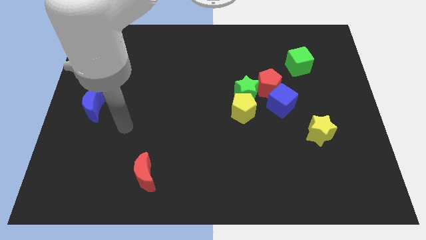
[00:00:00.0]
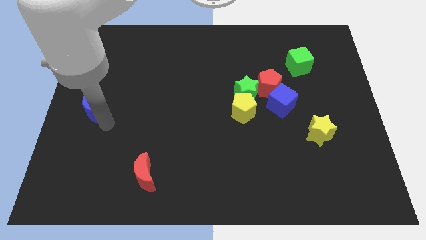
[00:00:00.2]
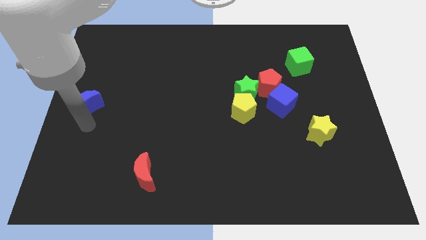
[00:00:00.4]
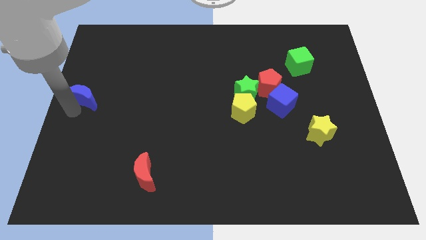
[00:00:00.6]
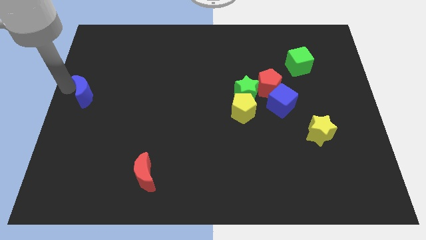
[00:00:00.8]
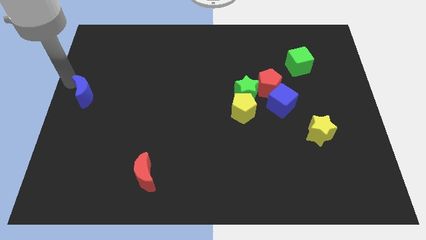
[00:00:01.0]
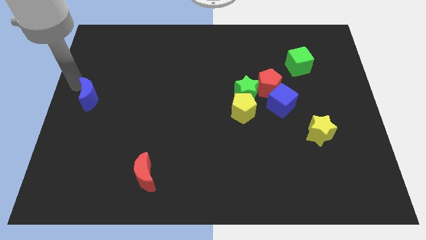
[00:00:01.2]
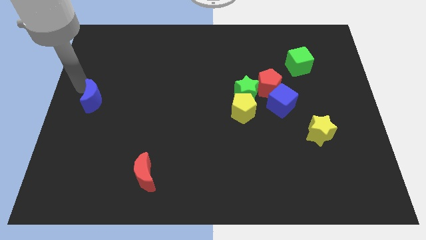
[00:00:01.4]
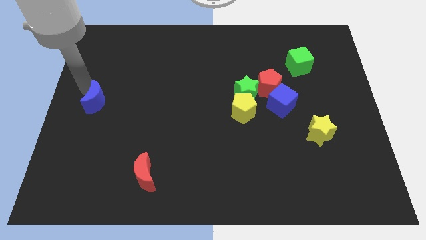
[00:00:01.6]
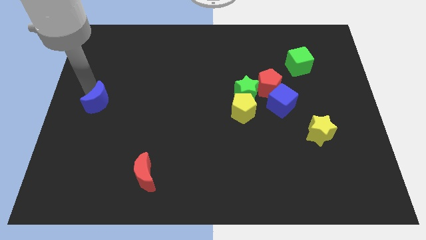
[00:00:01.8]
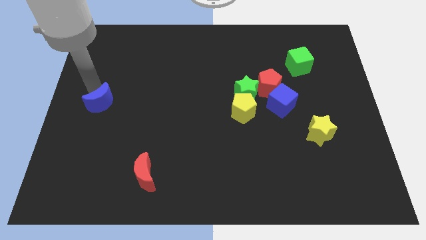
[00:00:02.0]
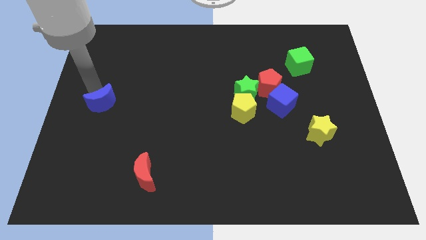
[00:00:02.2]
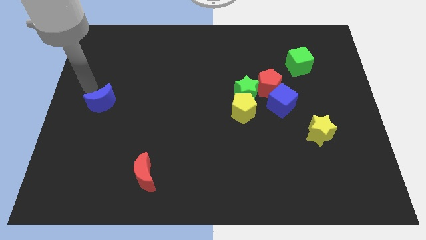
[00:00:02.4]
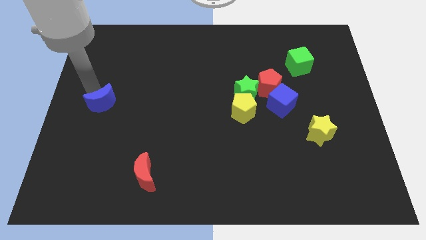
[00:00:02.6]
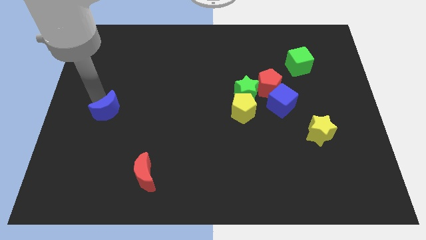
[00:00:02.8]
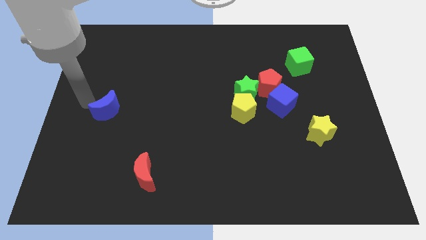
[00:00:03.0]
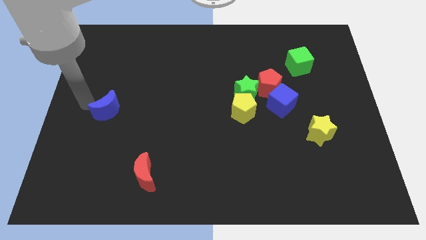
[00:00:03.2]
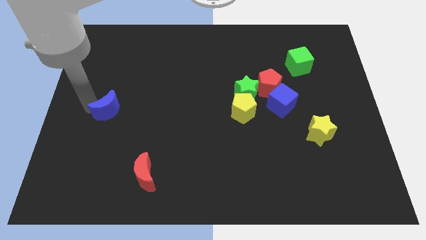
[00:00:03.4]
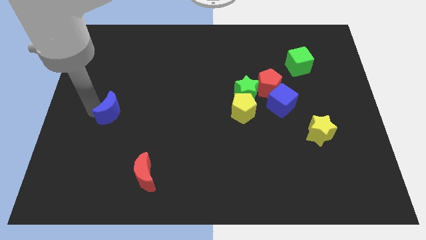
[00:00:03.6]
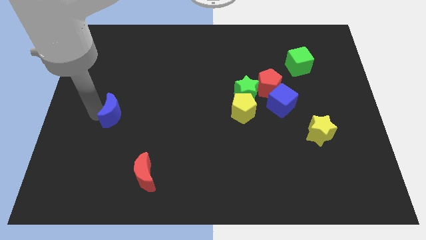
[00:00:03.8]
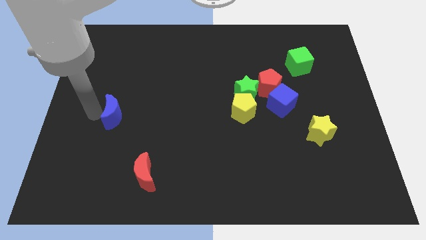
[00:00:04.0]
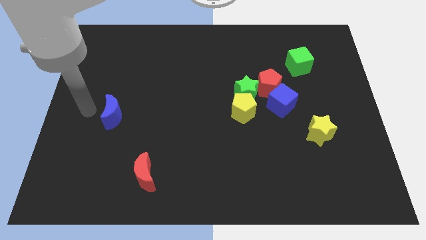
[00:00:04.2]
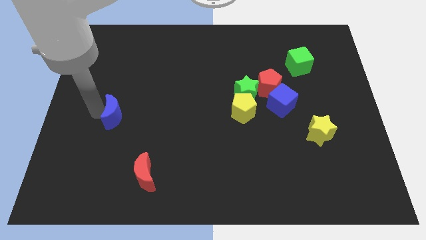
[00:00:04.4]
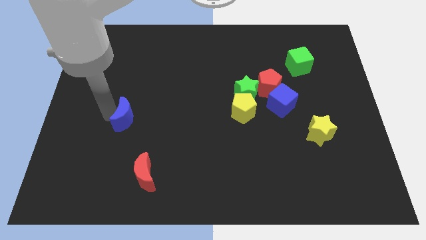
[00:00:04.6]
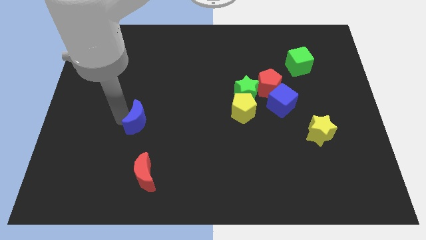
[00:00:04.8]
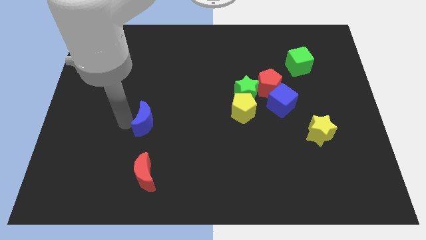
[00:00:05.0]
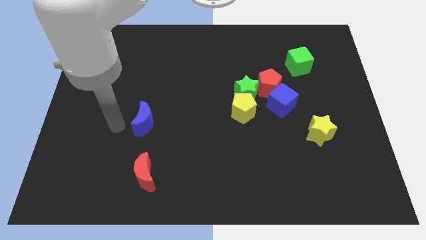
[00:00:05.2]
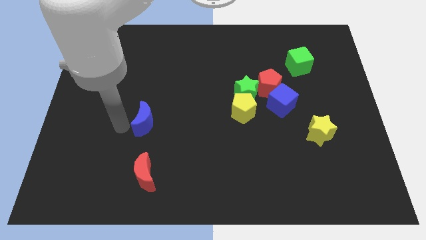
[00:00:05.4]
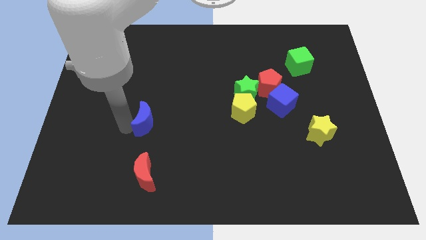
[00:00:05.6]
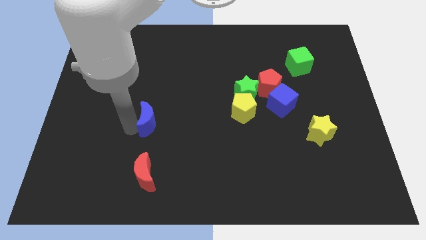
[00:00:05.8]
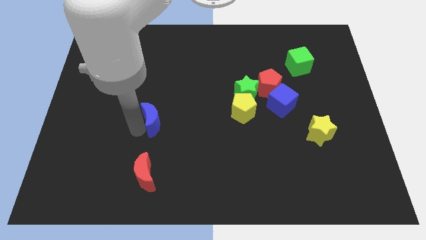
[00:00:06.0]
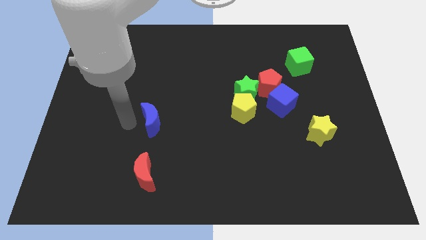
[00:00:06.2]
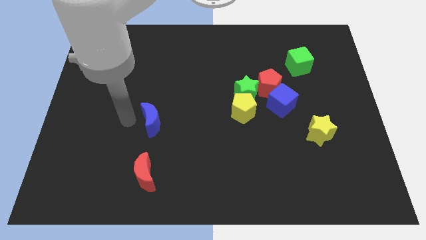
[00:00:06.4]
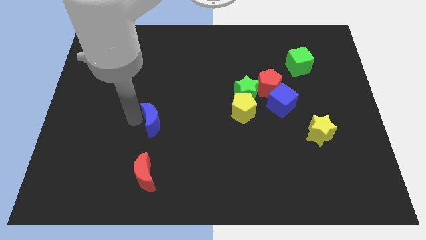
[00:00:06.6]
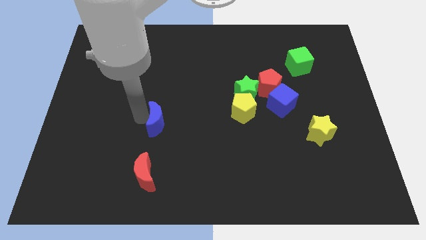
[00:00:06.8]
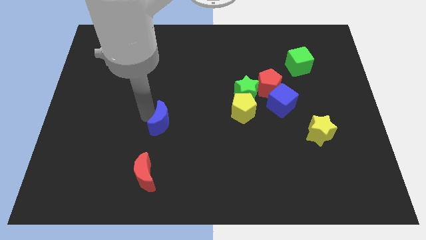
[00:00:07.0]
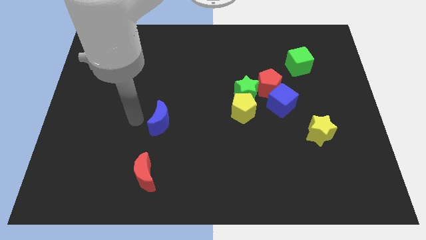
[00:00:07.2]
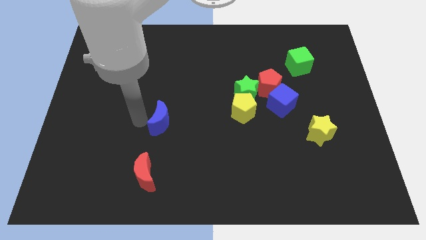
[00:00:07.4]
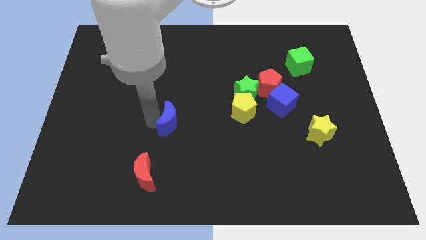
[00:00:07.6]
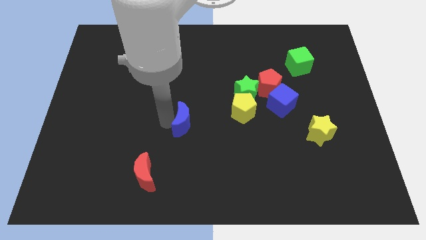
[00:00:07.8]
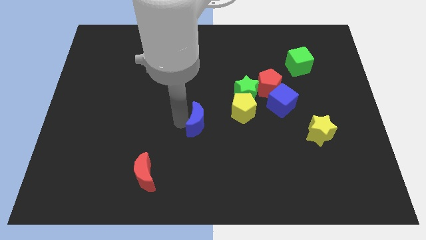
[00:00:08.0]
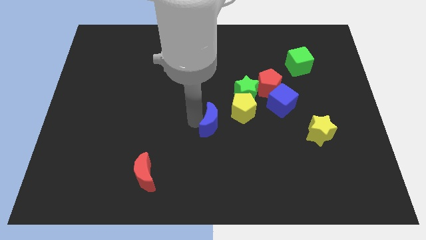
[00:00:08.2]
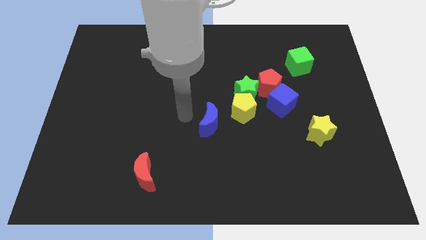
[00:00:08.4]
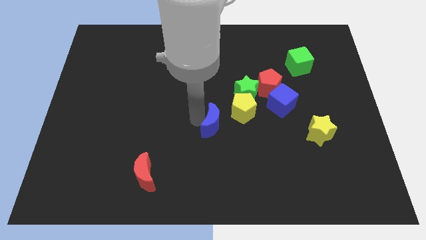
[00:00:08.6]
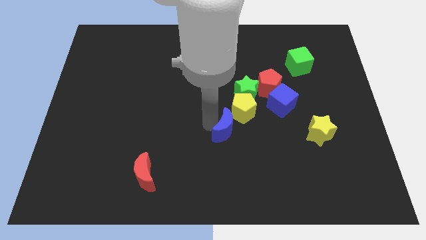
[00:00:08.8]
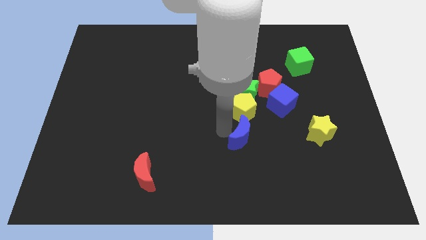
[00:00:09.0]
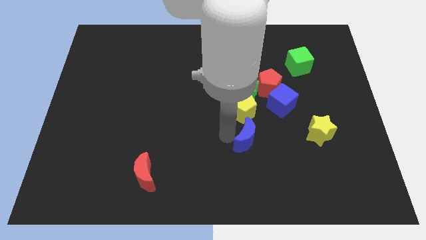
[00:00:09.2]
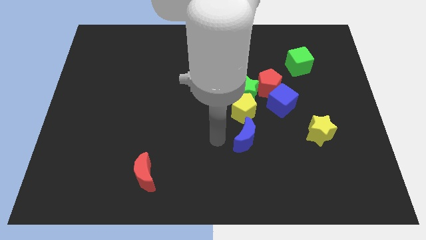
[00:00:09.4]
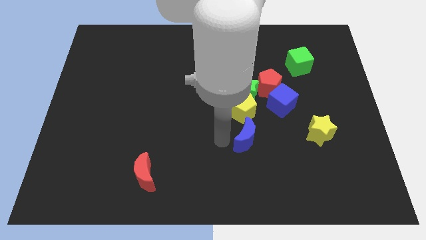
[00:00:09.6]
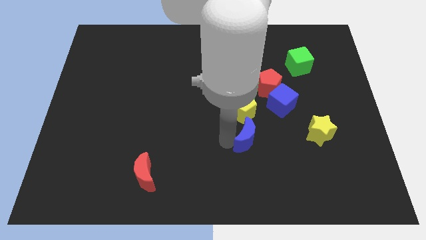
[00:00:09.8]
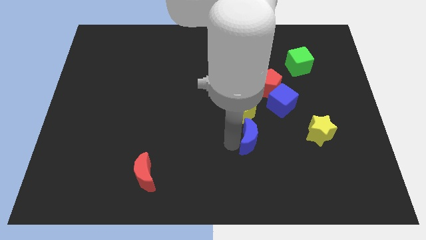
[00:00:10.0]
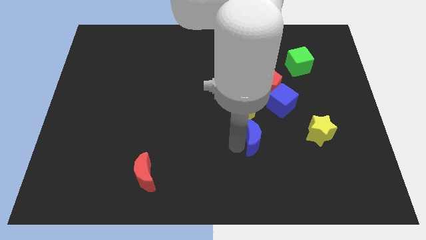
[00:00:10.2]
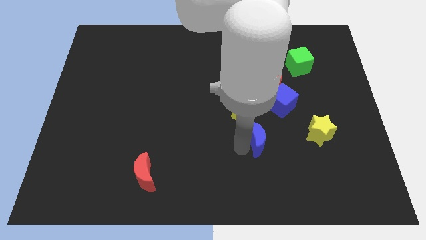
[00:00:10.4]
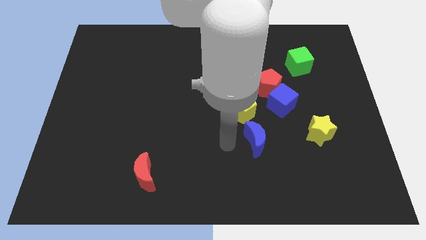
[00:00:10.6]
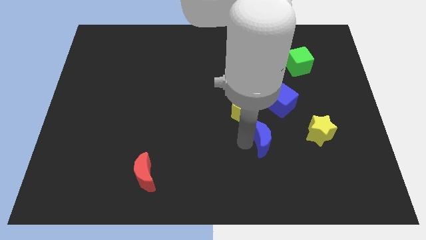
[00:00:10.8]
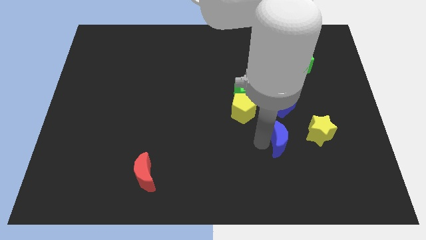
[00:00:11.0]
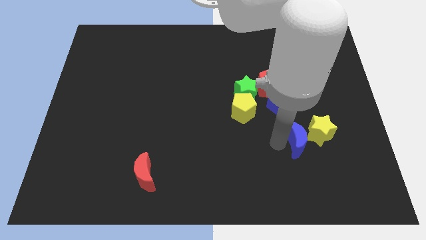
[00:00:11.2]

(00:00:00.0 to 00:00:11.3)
slide the blue moon to the yellow star

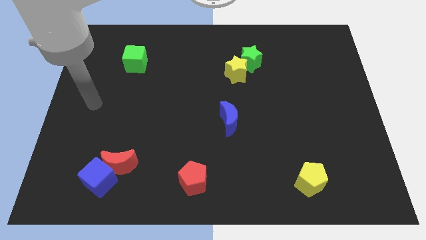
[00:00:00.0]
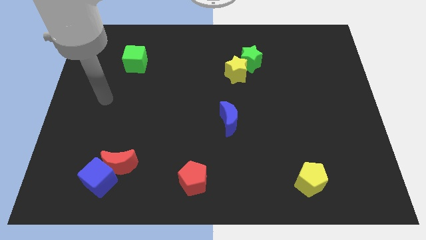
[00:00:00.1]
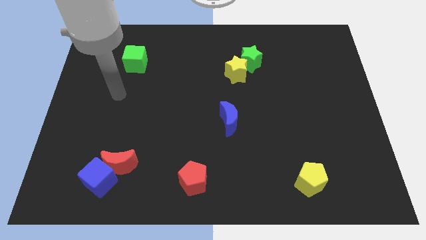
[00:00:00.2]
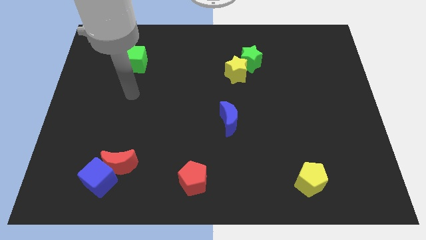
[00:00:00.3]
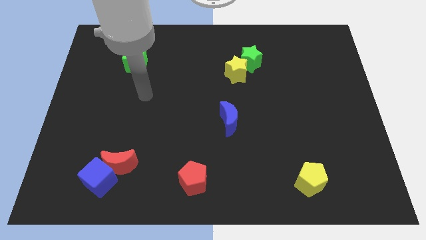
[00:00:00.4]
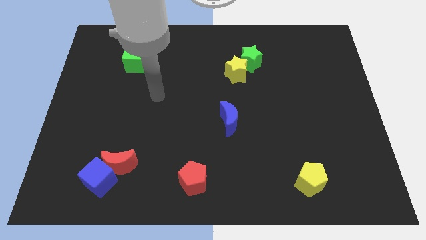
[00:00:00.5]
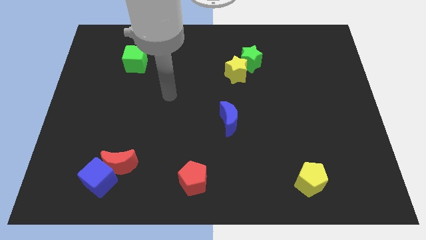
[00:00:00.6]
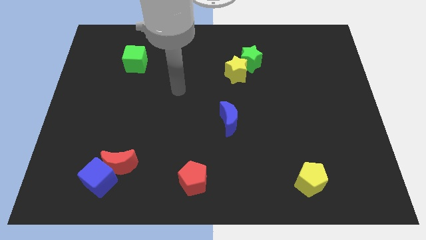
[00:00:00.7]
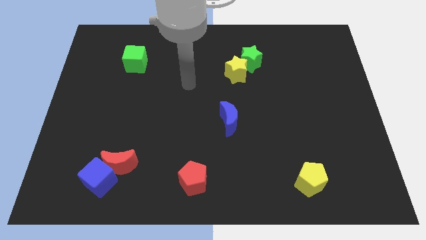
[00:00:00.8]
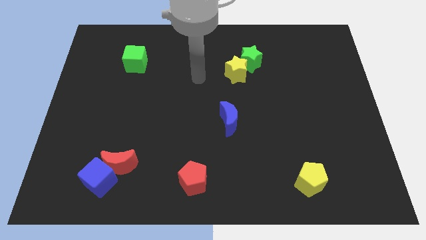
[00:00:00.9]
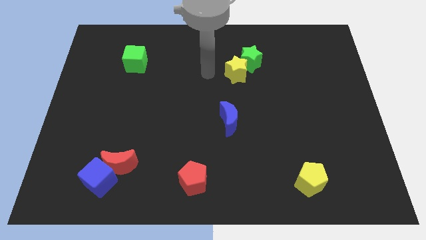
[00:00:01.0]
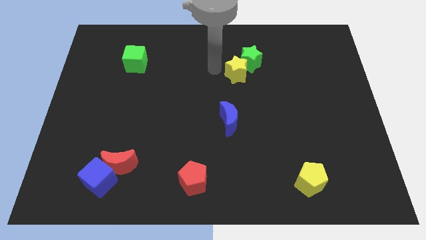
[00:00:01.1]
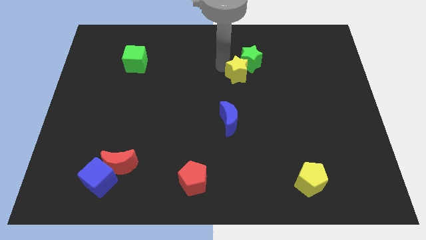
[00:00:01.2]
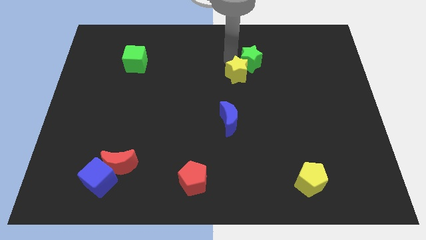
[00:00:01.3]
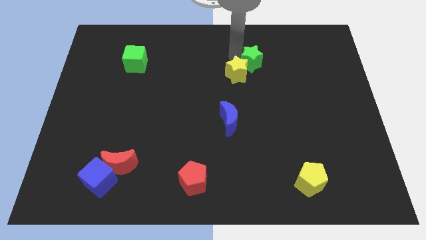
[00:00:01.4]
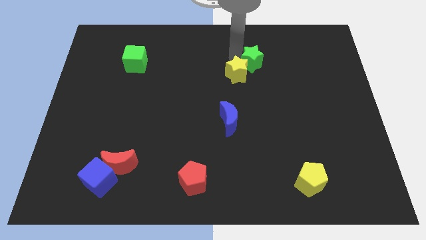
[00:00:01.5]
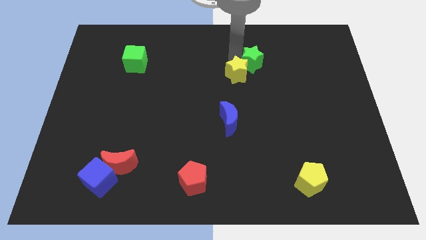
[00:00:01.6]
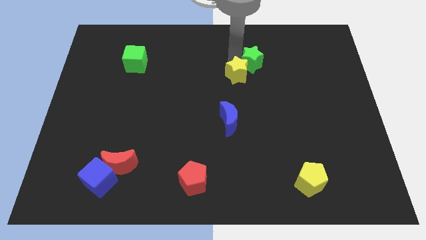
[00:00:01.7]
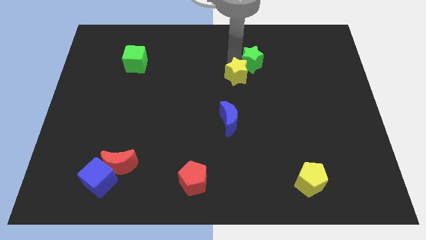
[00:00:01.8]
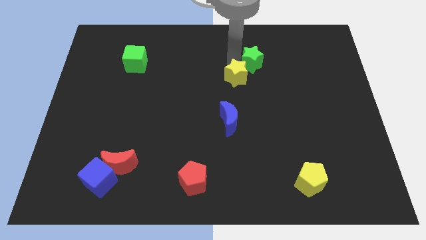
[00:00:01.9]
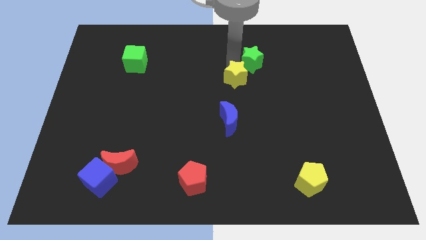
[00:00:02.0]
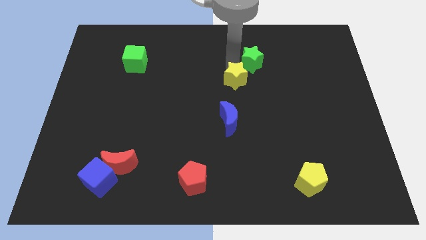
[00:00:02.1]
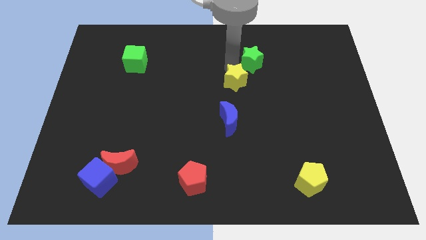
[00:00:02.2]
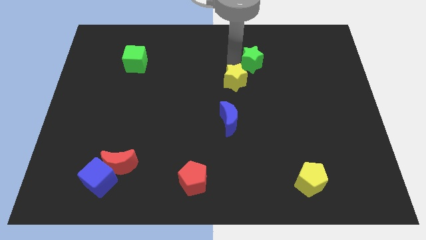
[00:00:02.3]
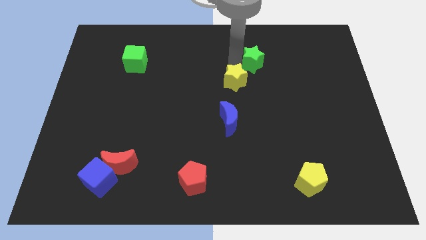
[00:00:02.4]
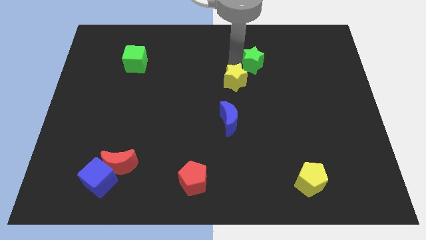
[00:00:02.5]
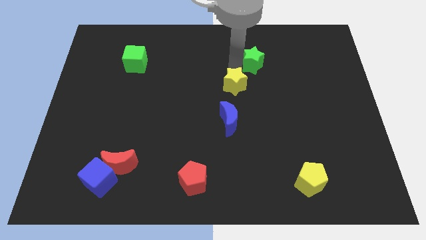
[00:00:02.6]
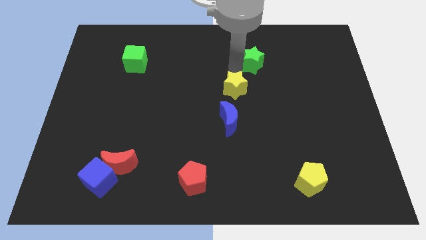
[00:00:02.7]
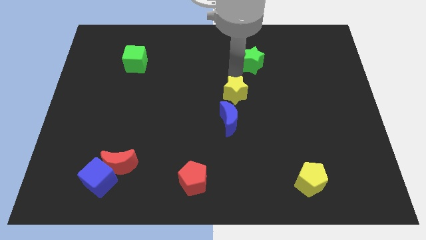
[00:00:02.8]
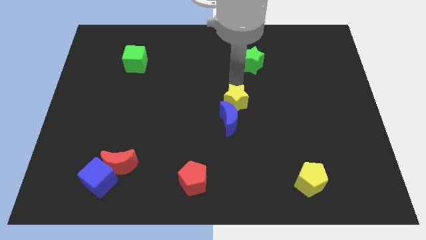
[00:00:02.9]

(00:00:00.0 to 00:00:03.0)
push the yellow star close to the blue moon
